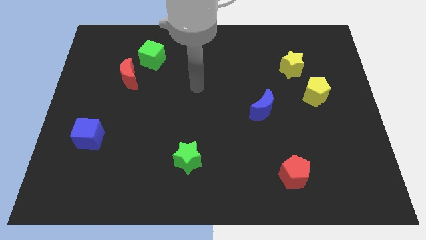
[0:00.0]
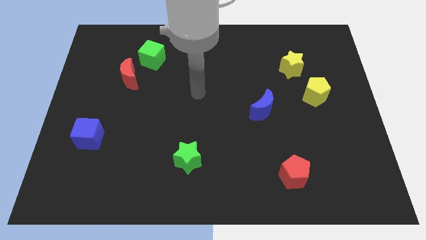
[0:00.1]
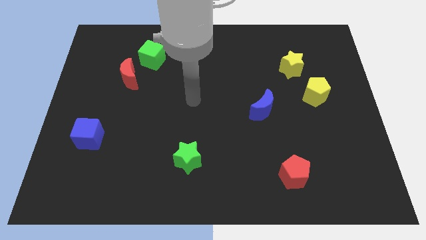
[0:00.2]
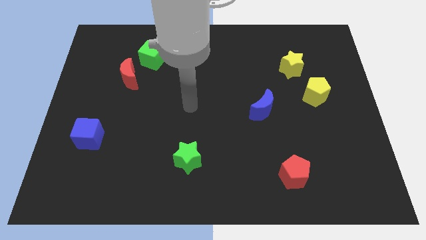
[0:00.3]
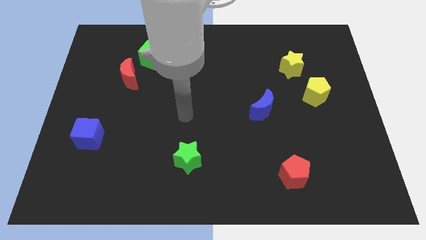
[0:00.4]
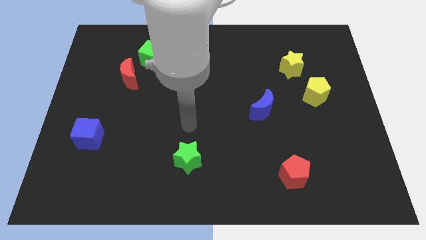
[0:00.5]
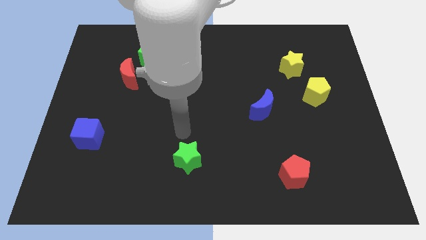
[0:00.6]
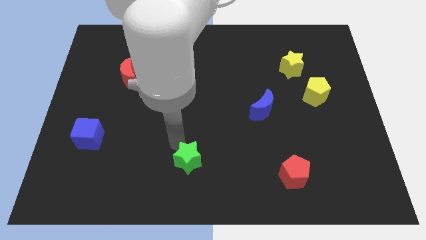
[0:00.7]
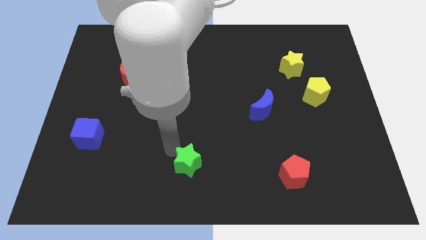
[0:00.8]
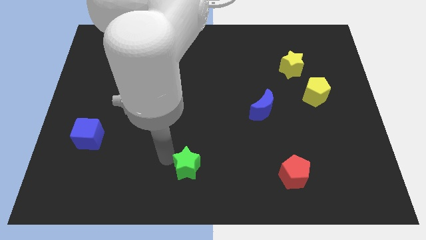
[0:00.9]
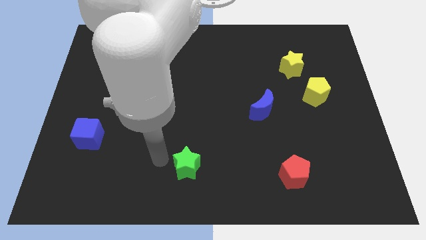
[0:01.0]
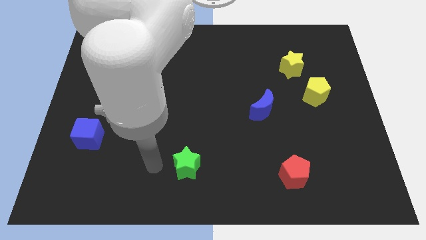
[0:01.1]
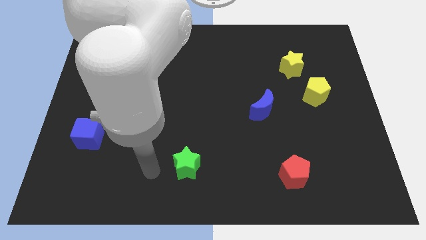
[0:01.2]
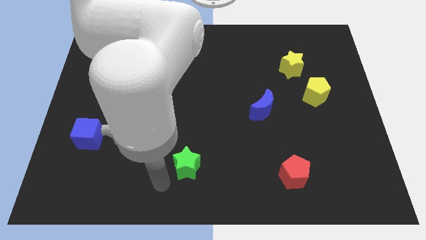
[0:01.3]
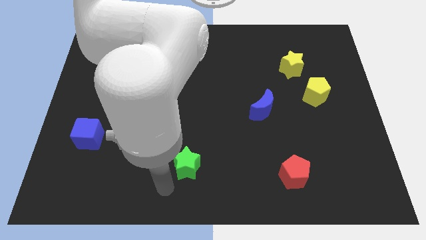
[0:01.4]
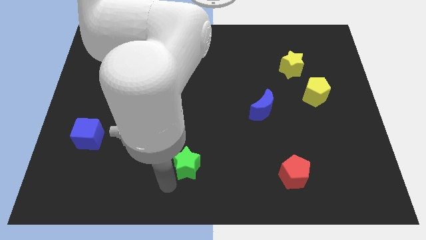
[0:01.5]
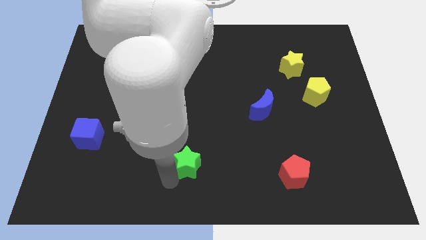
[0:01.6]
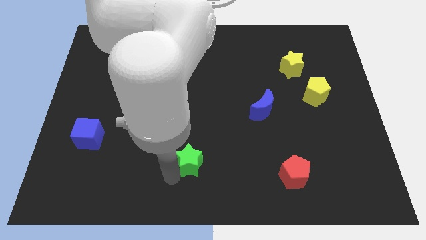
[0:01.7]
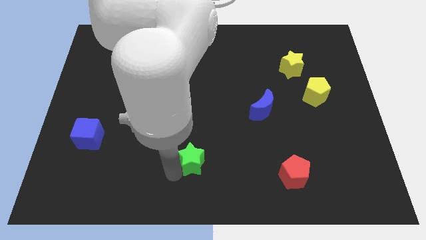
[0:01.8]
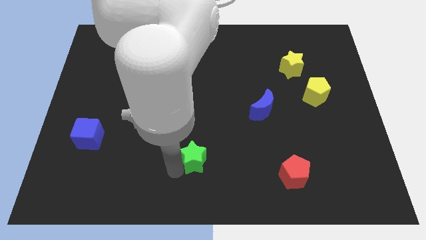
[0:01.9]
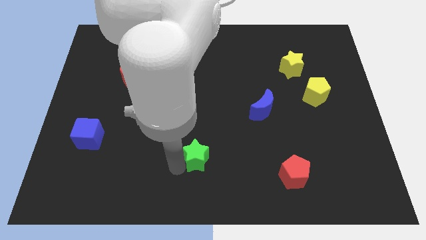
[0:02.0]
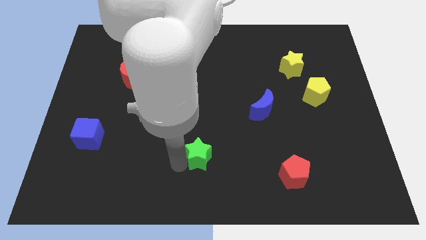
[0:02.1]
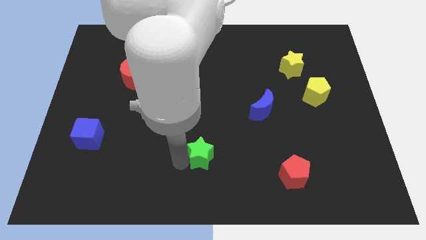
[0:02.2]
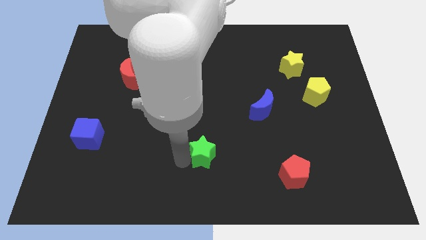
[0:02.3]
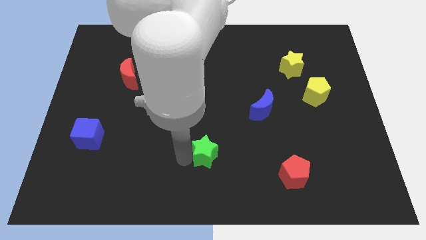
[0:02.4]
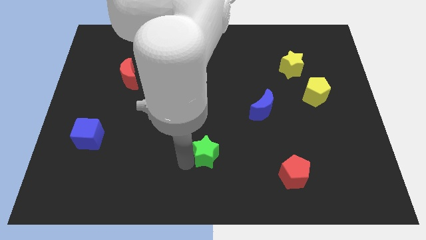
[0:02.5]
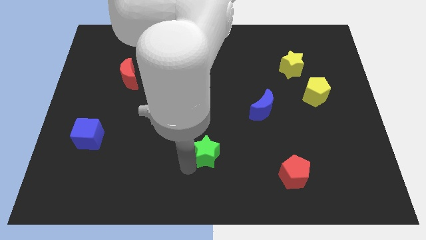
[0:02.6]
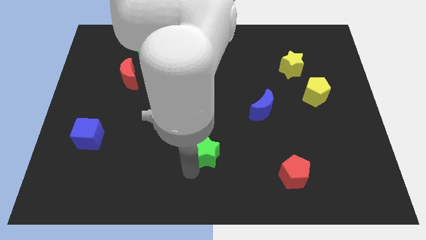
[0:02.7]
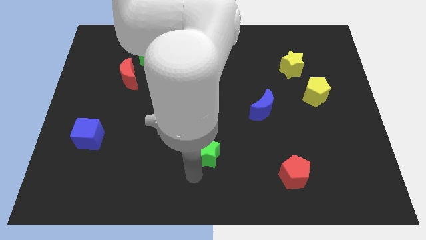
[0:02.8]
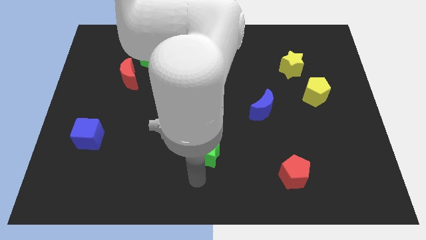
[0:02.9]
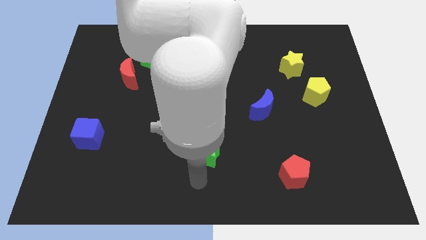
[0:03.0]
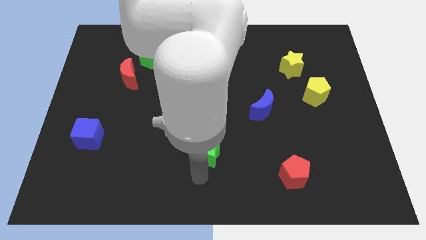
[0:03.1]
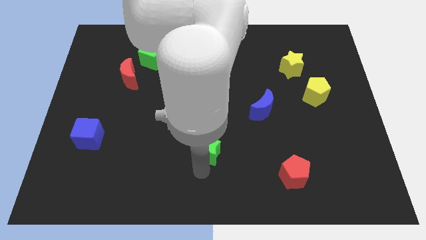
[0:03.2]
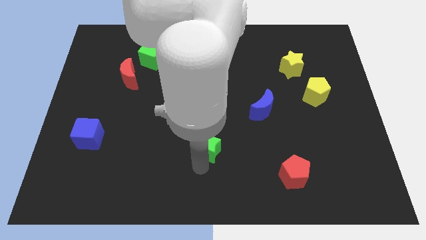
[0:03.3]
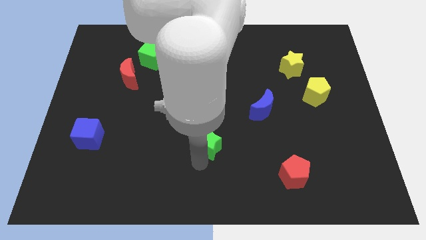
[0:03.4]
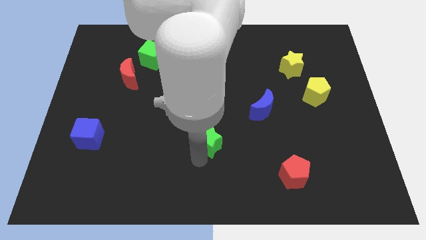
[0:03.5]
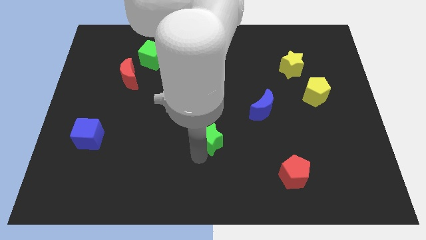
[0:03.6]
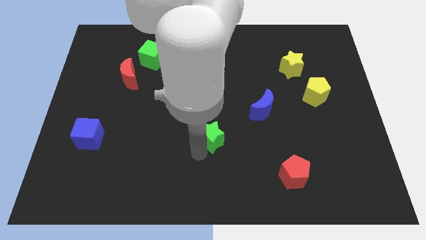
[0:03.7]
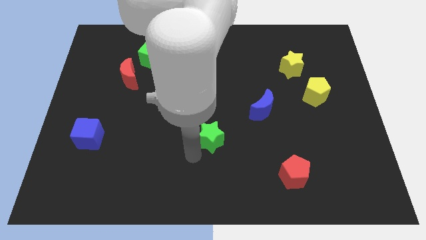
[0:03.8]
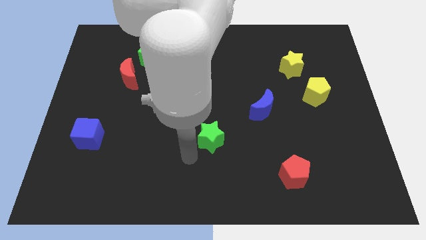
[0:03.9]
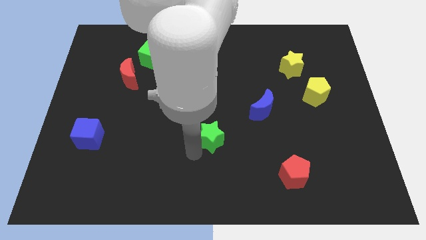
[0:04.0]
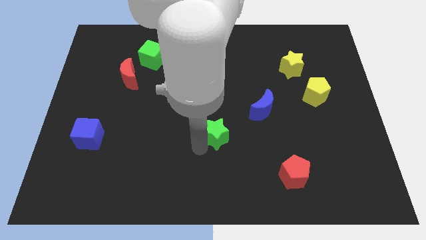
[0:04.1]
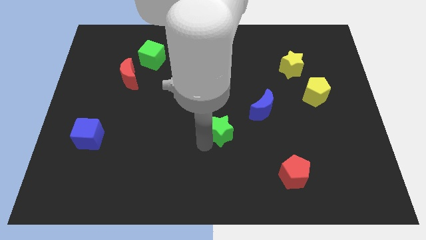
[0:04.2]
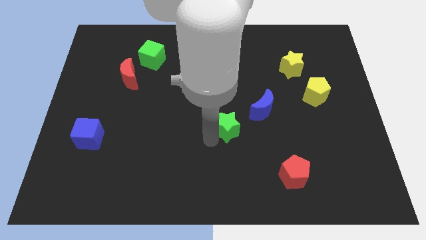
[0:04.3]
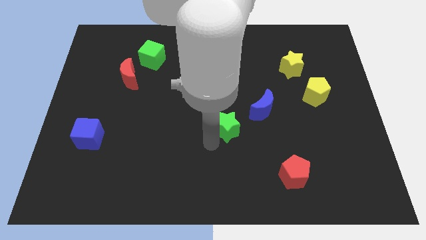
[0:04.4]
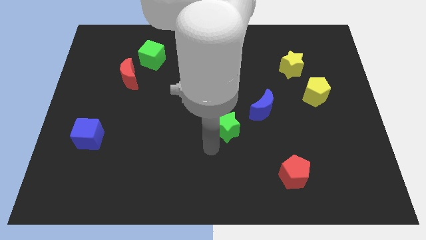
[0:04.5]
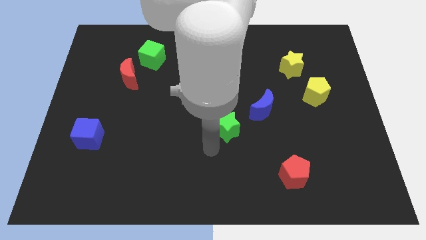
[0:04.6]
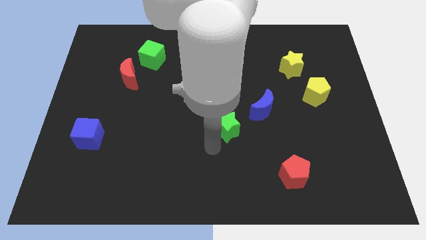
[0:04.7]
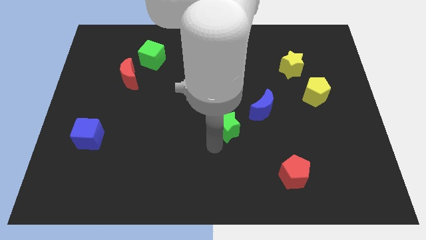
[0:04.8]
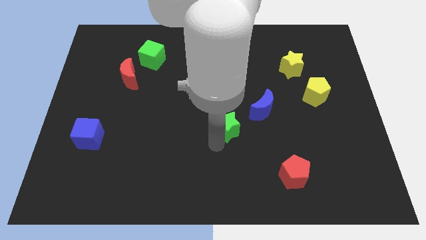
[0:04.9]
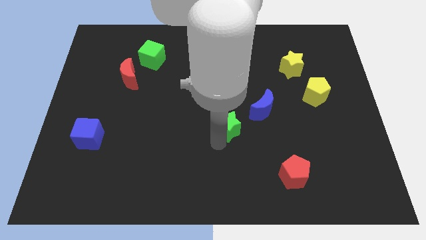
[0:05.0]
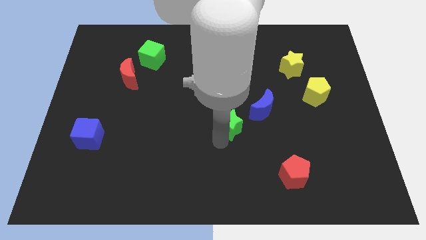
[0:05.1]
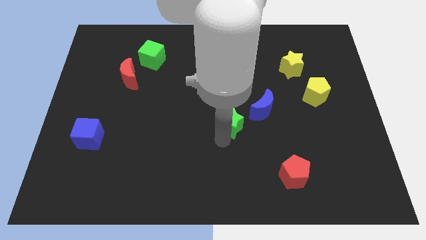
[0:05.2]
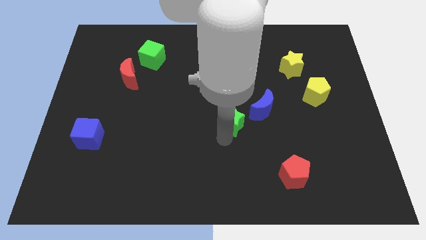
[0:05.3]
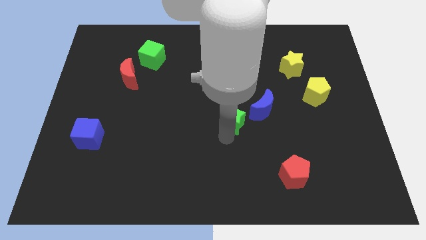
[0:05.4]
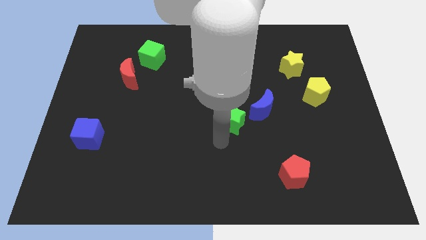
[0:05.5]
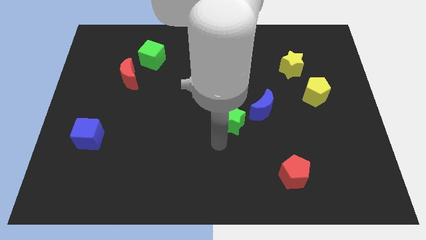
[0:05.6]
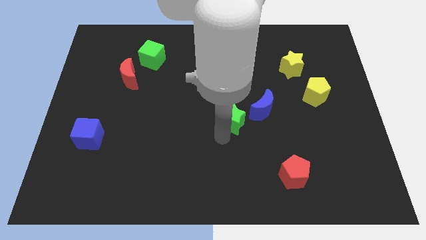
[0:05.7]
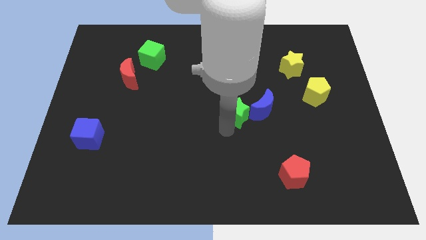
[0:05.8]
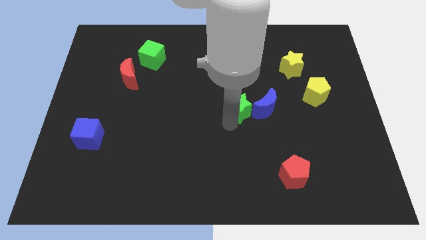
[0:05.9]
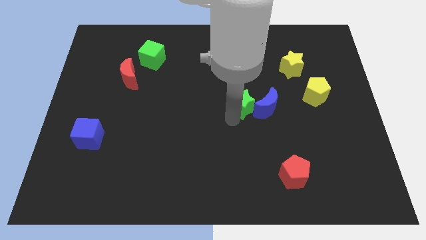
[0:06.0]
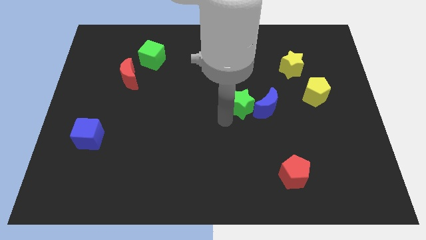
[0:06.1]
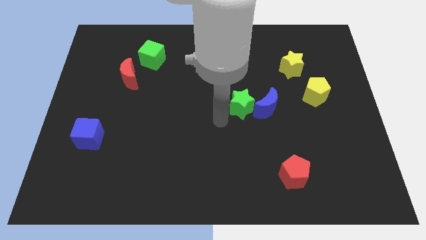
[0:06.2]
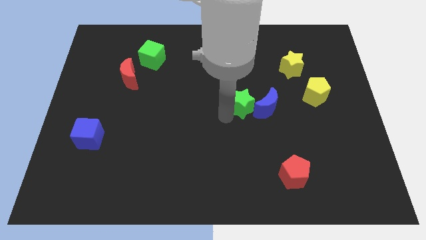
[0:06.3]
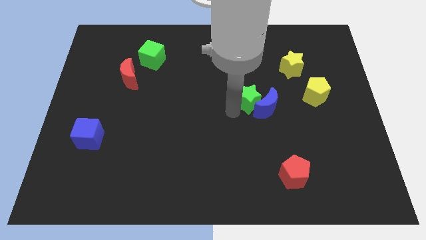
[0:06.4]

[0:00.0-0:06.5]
slide the green star upwards and then right

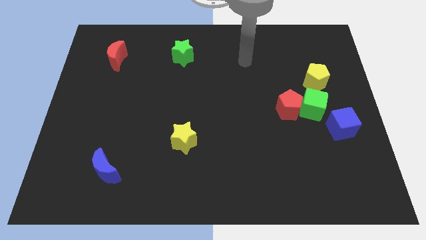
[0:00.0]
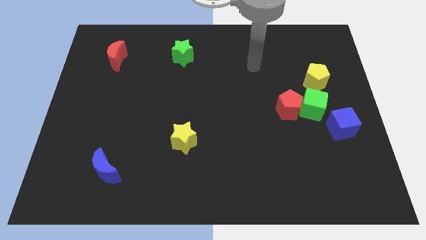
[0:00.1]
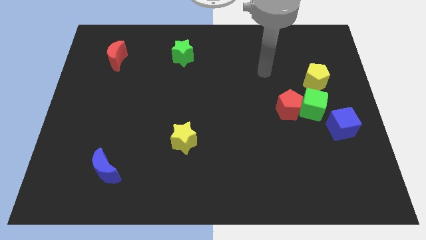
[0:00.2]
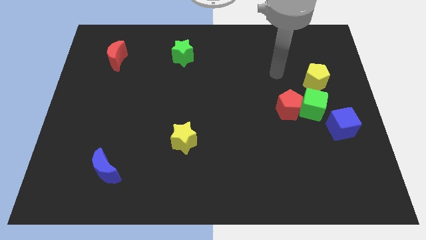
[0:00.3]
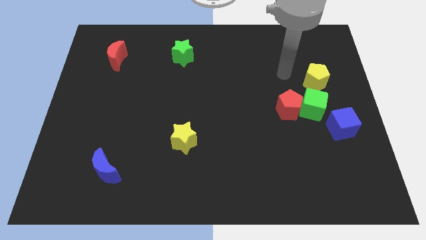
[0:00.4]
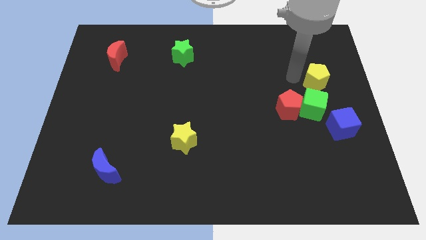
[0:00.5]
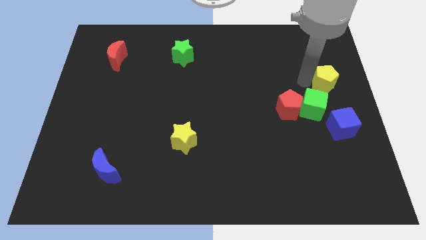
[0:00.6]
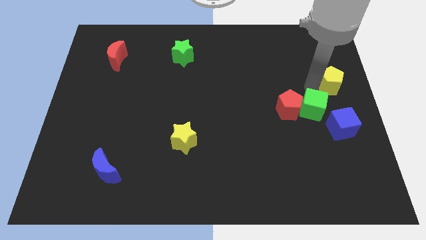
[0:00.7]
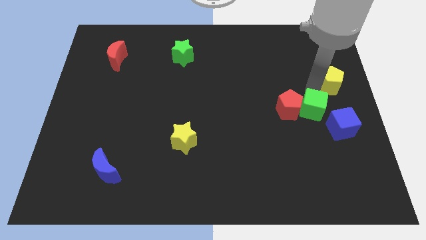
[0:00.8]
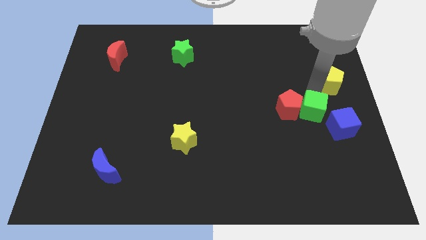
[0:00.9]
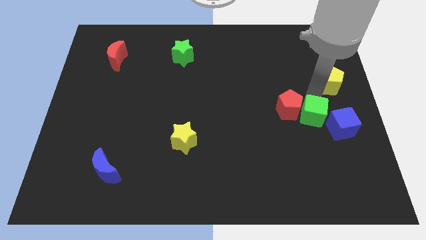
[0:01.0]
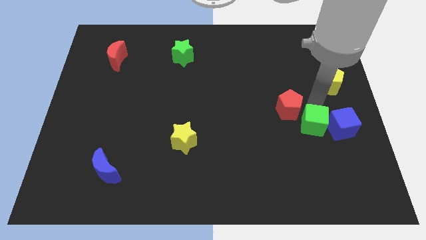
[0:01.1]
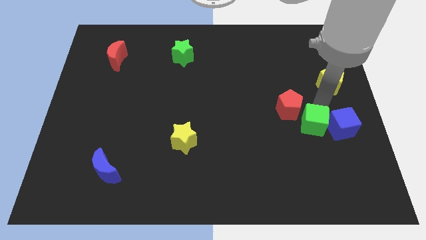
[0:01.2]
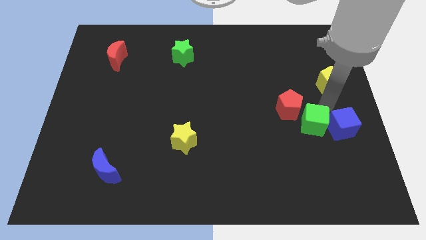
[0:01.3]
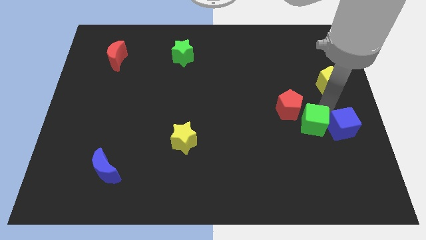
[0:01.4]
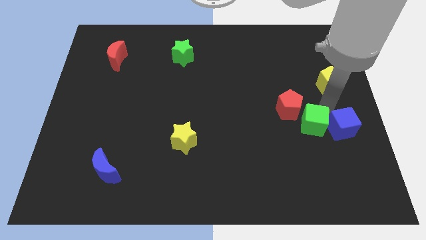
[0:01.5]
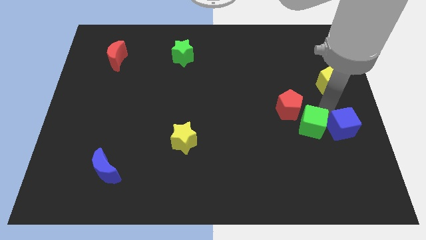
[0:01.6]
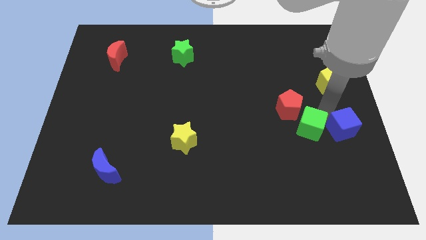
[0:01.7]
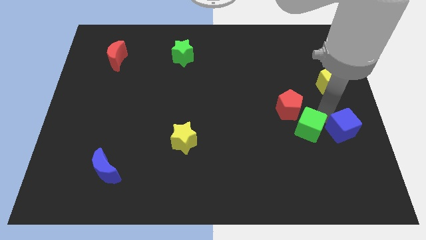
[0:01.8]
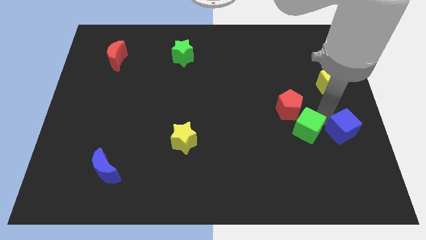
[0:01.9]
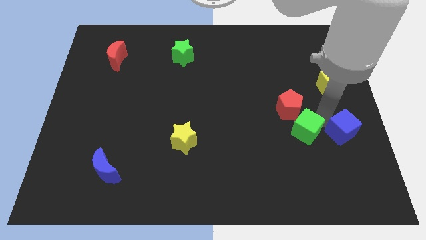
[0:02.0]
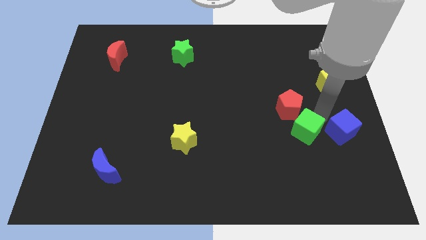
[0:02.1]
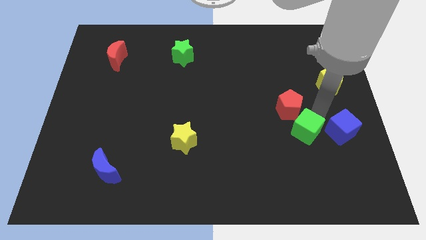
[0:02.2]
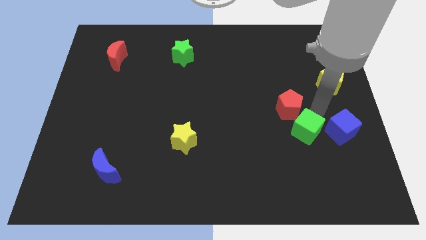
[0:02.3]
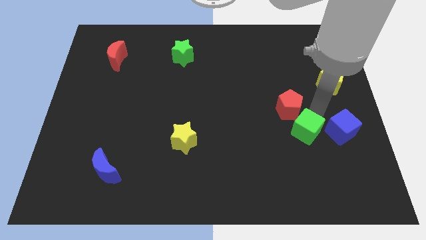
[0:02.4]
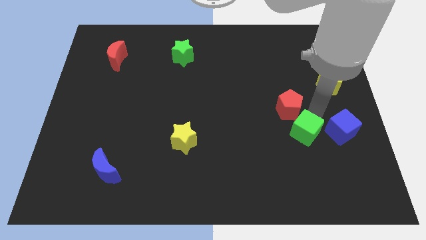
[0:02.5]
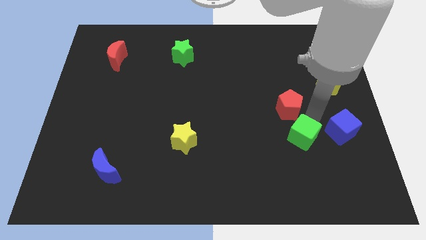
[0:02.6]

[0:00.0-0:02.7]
slightly push the green cube down and left diagonally
